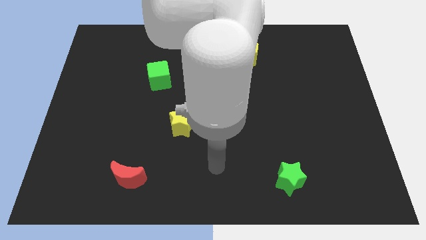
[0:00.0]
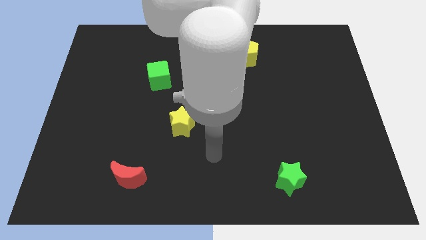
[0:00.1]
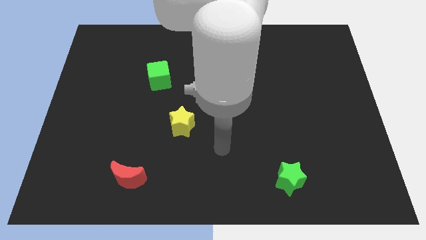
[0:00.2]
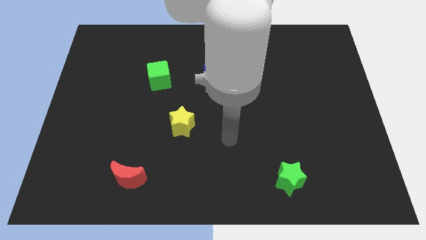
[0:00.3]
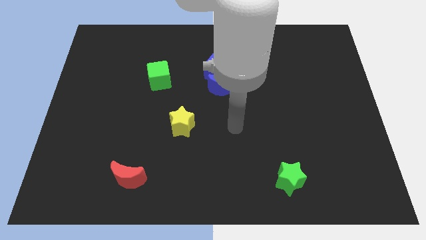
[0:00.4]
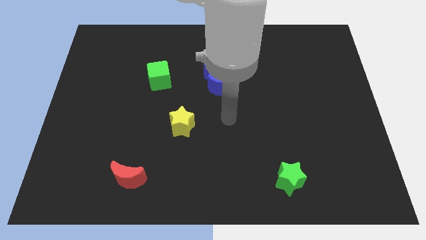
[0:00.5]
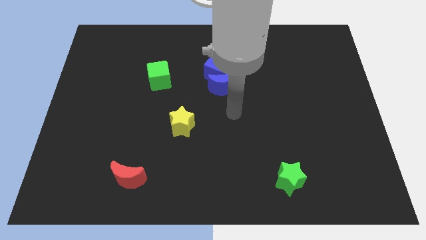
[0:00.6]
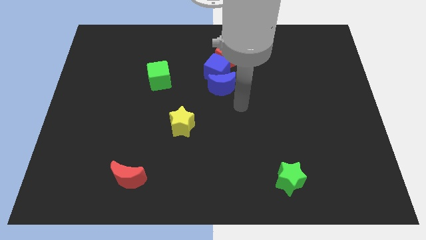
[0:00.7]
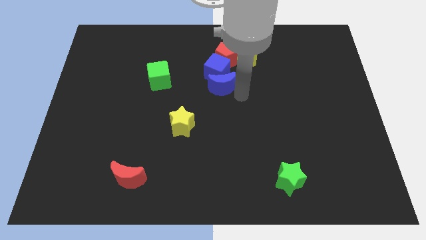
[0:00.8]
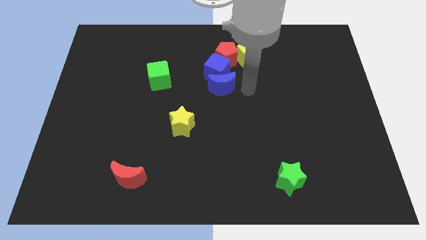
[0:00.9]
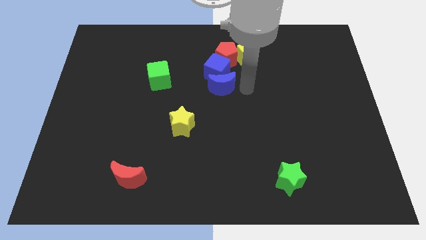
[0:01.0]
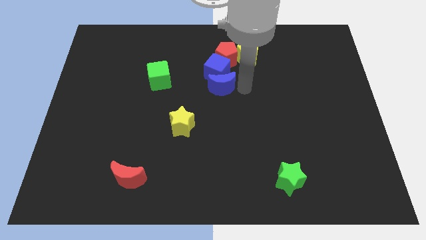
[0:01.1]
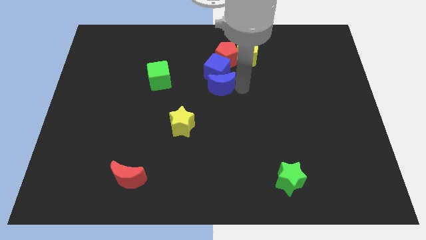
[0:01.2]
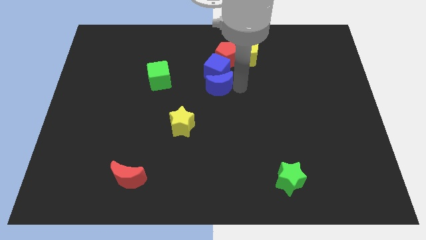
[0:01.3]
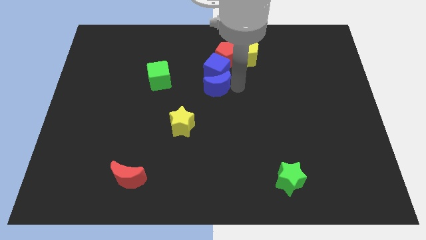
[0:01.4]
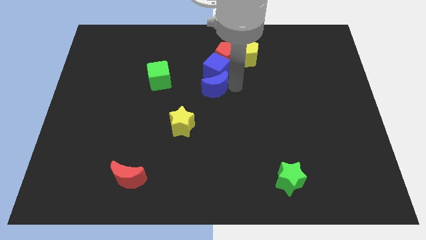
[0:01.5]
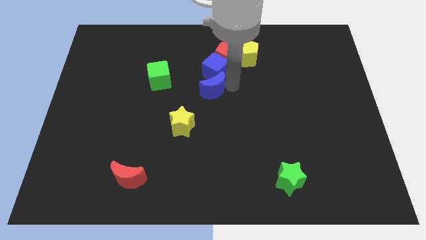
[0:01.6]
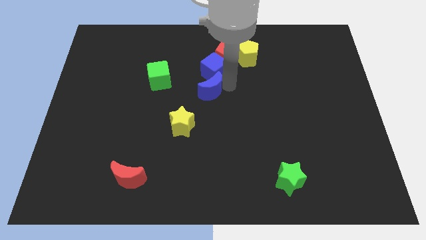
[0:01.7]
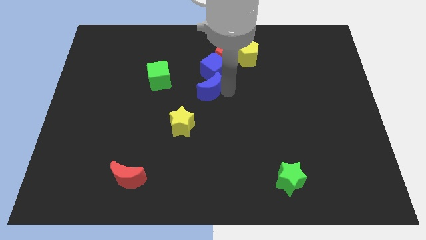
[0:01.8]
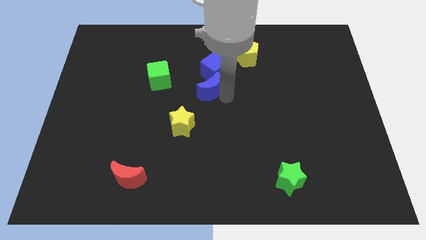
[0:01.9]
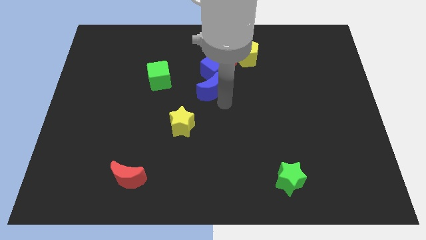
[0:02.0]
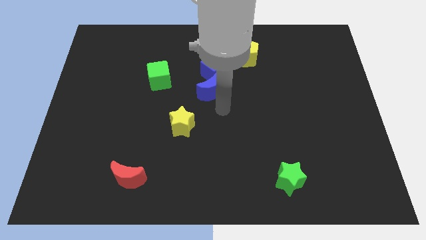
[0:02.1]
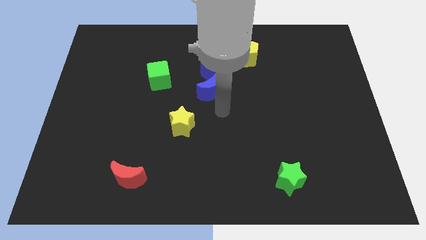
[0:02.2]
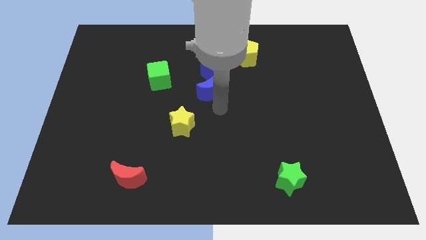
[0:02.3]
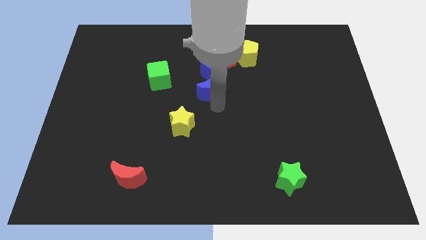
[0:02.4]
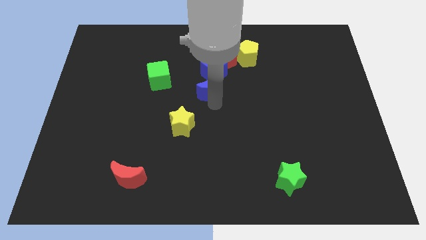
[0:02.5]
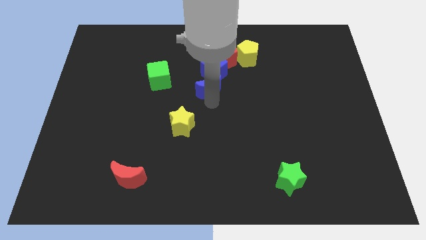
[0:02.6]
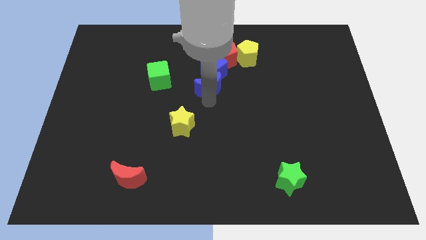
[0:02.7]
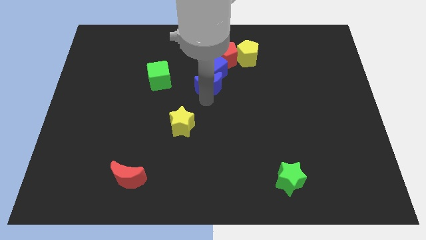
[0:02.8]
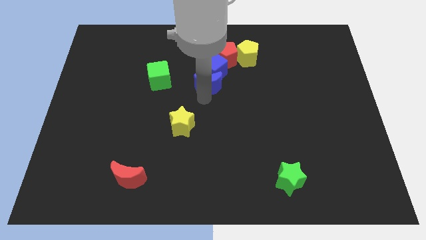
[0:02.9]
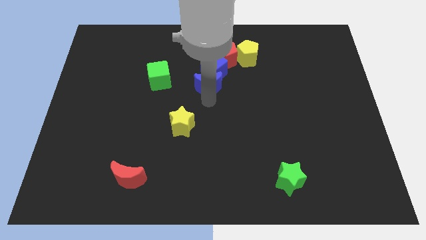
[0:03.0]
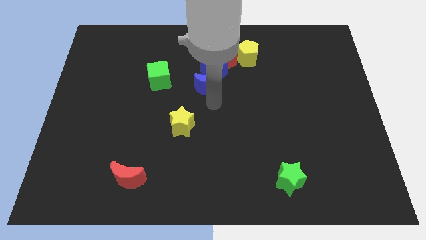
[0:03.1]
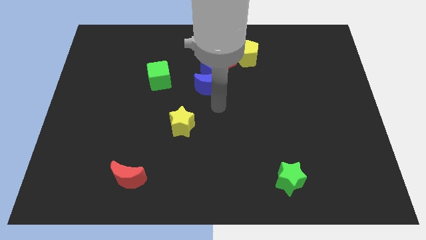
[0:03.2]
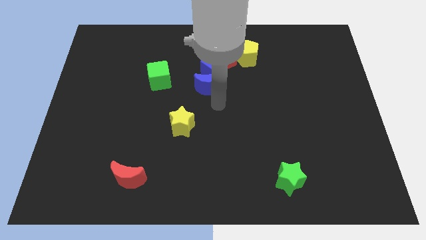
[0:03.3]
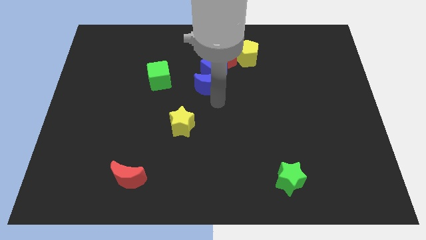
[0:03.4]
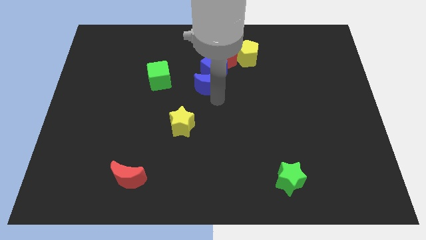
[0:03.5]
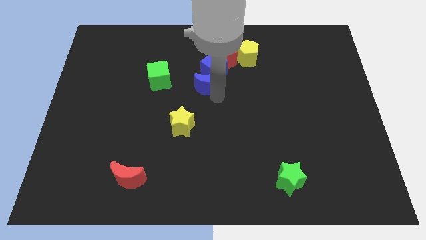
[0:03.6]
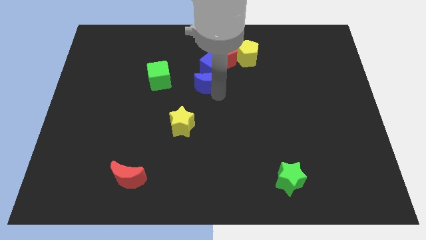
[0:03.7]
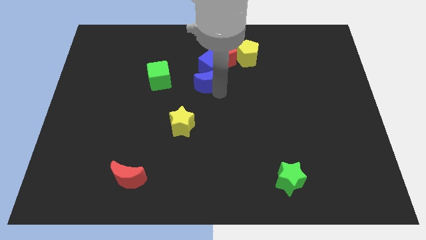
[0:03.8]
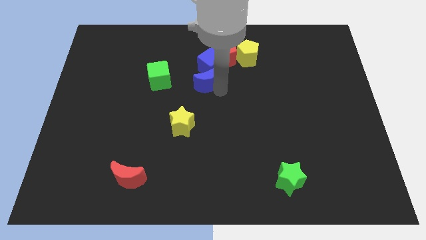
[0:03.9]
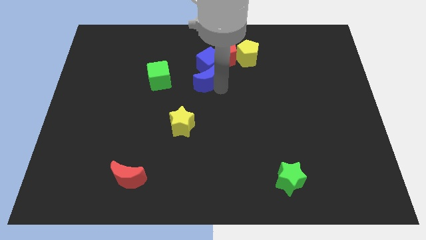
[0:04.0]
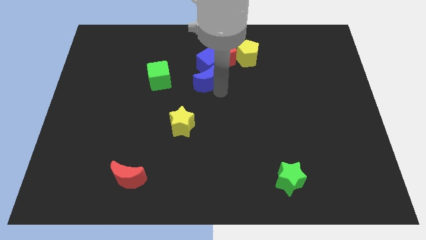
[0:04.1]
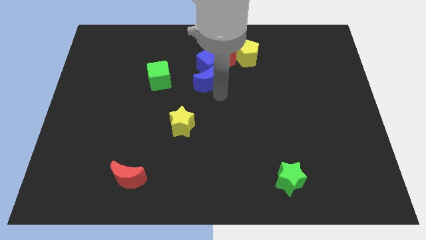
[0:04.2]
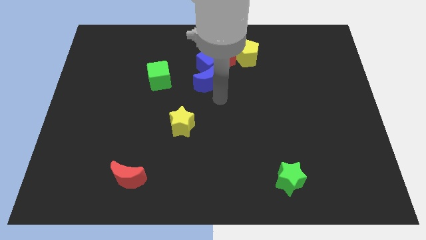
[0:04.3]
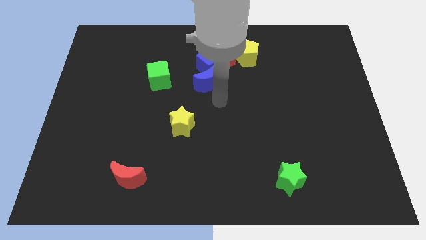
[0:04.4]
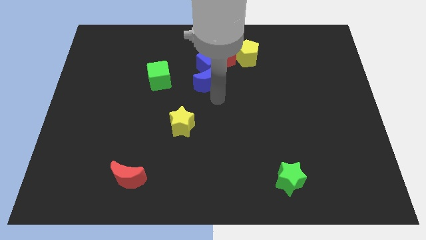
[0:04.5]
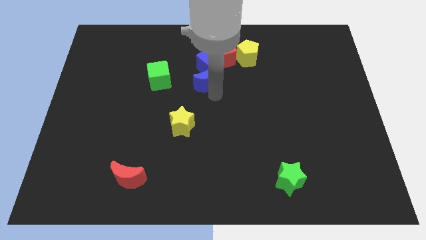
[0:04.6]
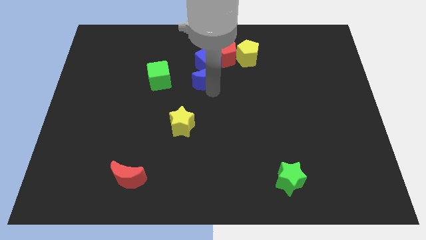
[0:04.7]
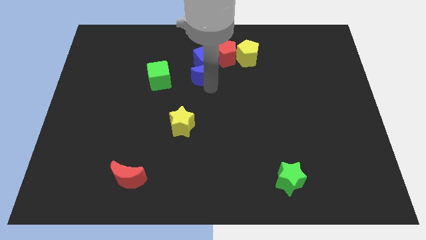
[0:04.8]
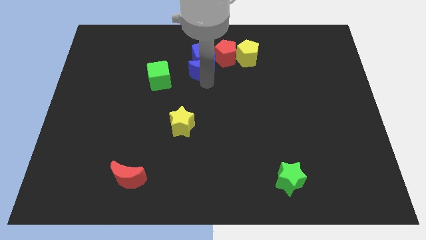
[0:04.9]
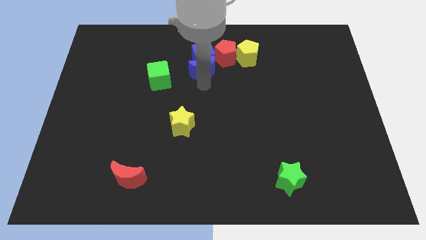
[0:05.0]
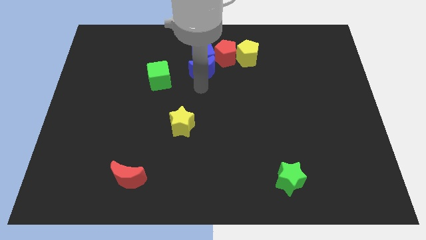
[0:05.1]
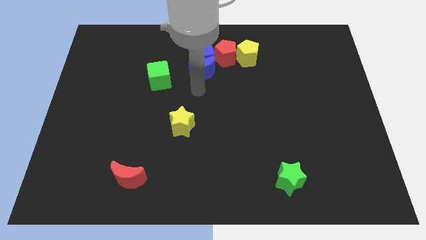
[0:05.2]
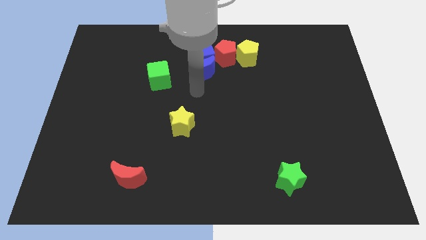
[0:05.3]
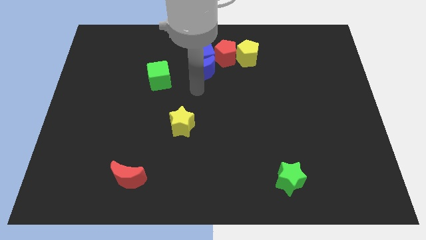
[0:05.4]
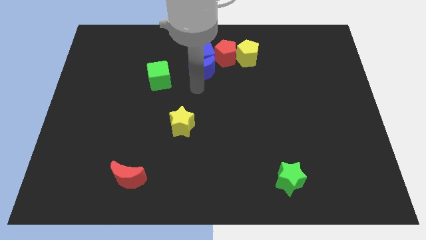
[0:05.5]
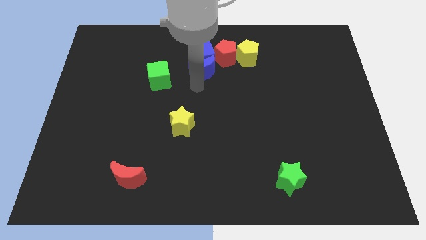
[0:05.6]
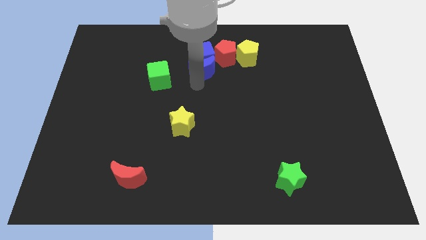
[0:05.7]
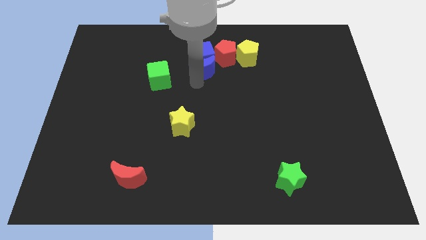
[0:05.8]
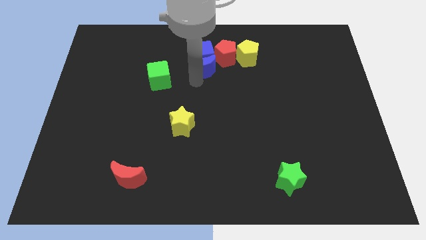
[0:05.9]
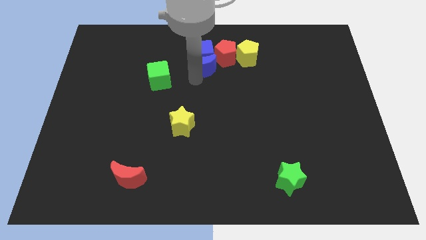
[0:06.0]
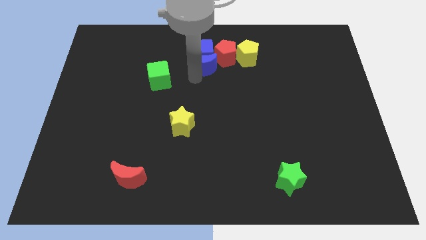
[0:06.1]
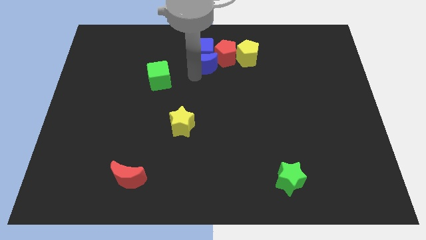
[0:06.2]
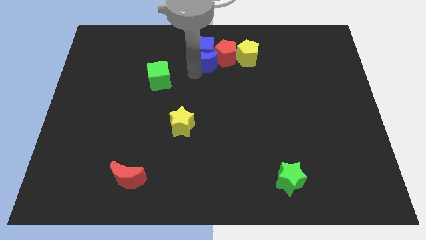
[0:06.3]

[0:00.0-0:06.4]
push the blue moon next to the red pentagon

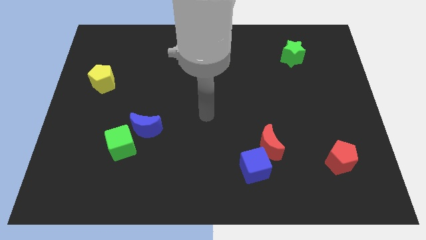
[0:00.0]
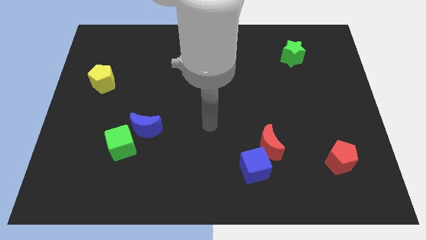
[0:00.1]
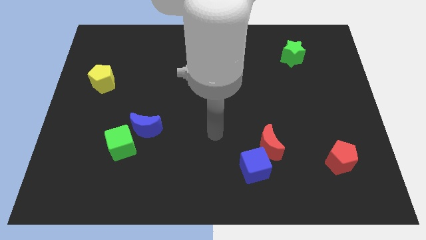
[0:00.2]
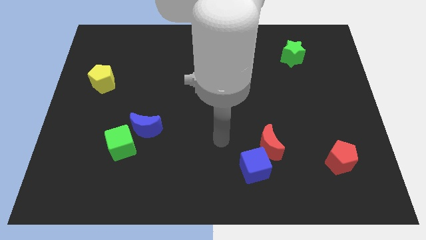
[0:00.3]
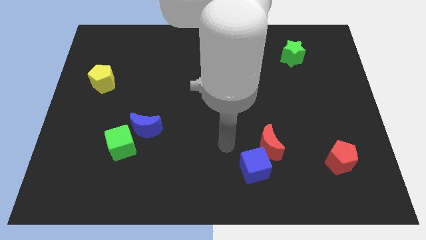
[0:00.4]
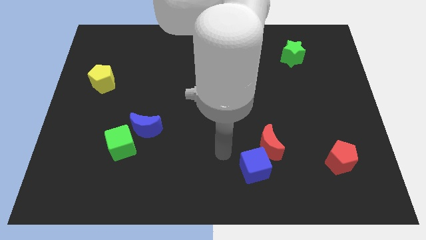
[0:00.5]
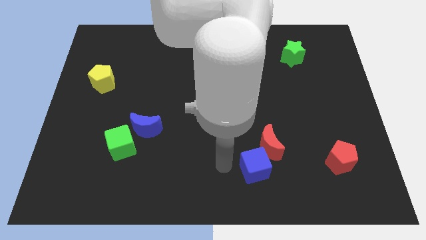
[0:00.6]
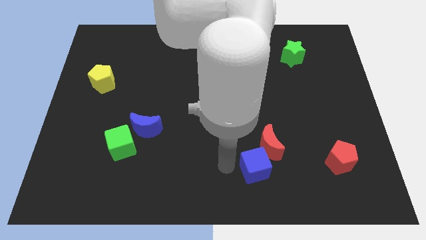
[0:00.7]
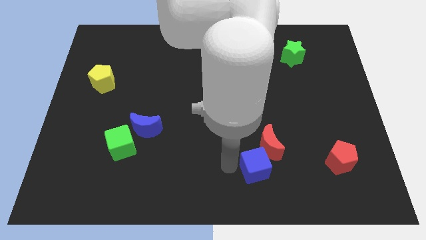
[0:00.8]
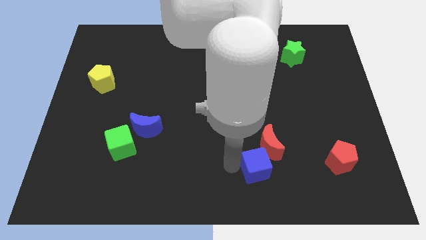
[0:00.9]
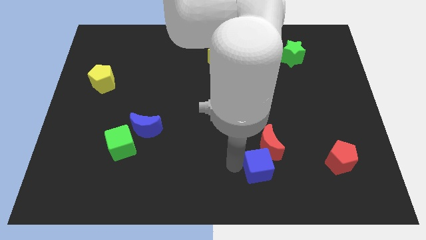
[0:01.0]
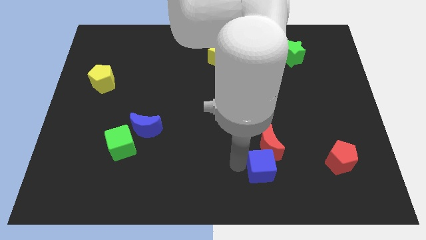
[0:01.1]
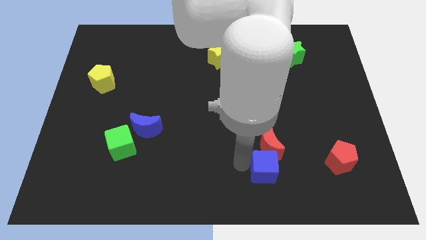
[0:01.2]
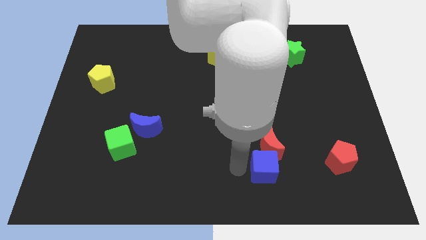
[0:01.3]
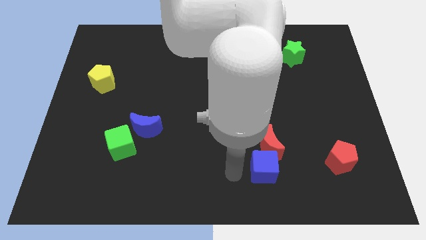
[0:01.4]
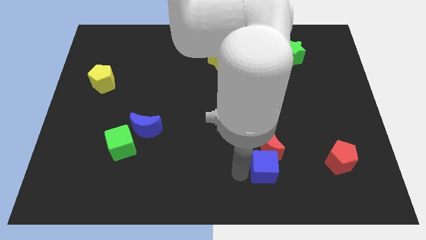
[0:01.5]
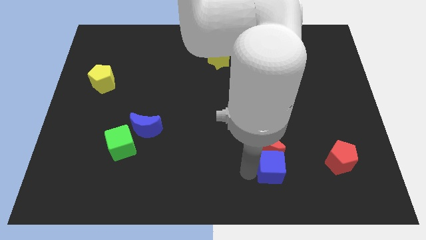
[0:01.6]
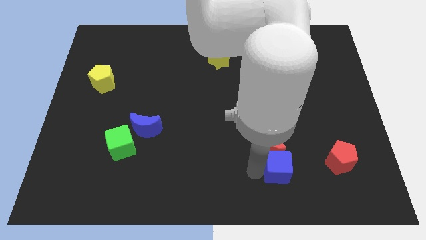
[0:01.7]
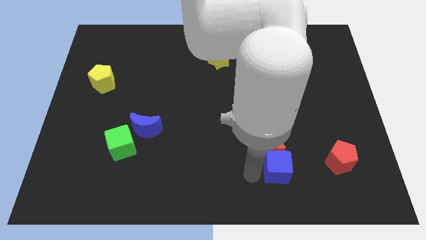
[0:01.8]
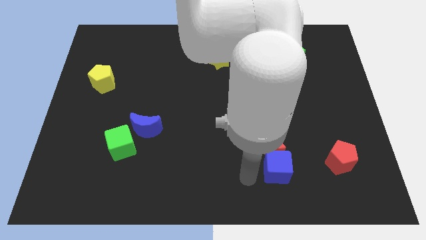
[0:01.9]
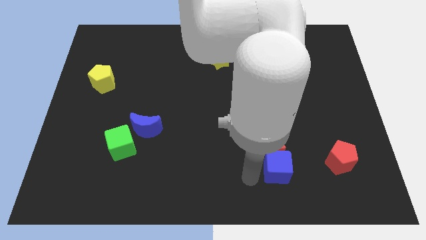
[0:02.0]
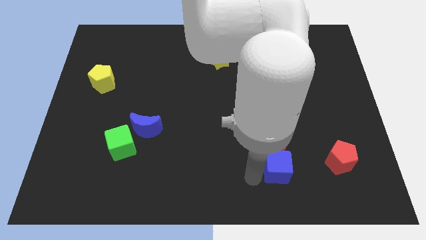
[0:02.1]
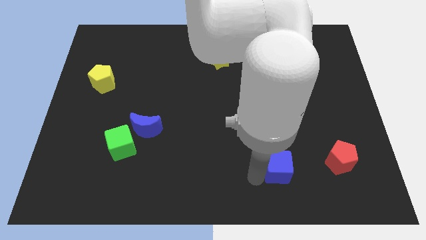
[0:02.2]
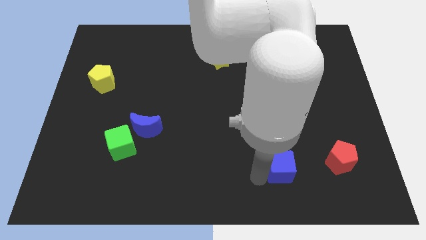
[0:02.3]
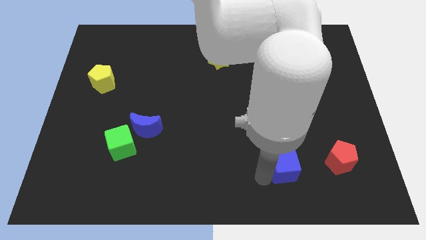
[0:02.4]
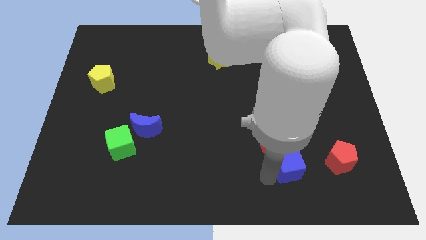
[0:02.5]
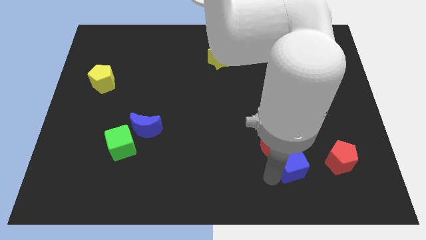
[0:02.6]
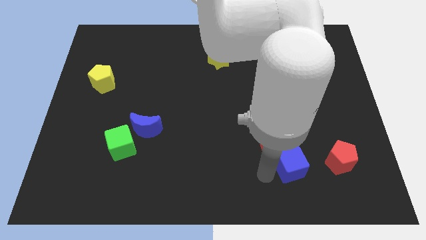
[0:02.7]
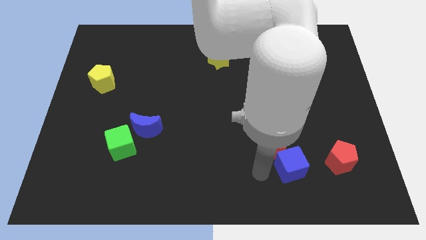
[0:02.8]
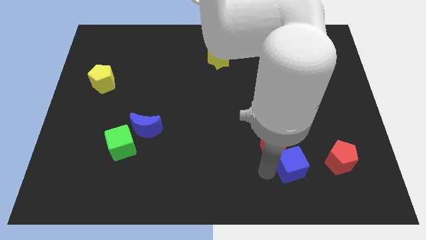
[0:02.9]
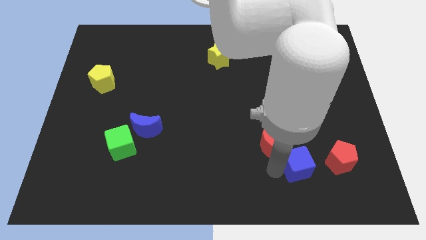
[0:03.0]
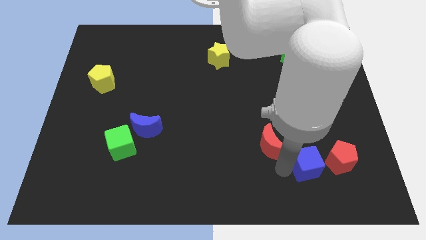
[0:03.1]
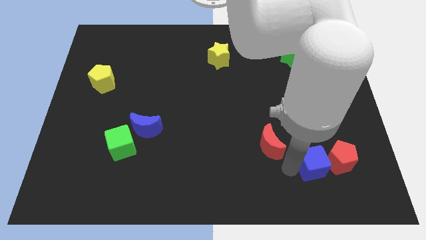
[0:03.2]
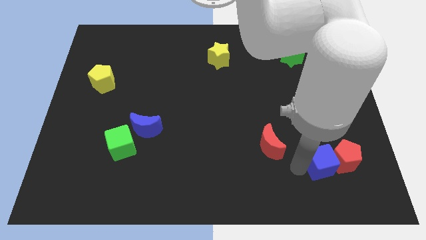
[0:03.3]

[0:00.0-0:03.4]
move the blue cube towards the red pentagon
